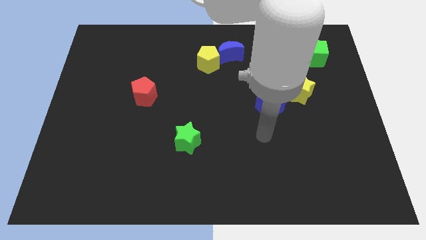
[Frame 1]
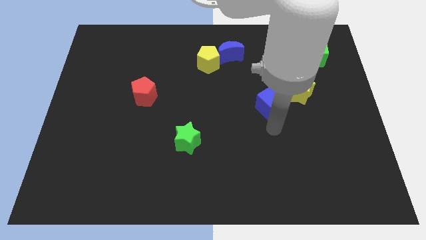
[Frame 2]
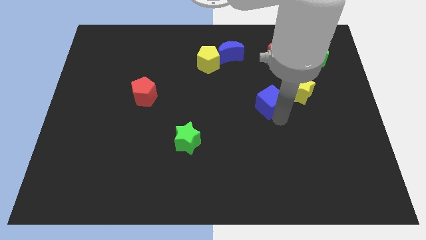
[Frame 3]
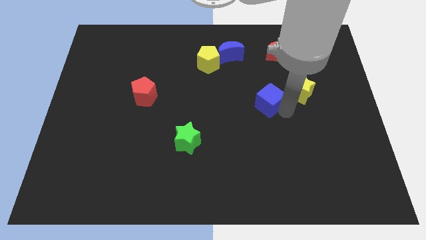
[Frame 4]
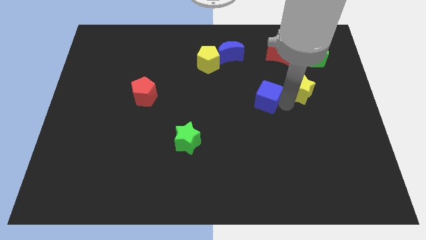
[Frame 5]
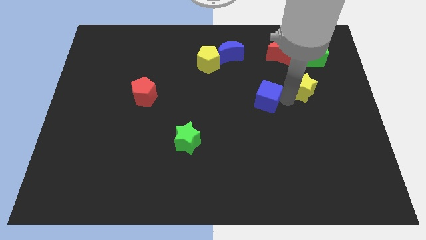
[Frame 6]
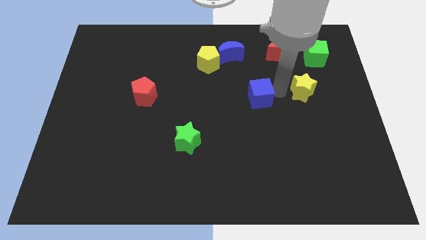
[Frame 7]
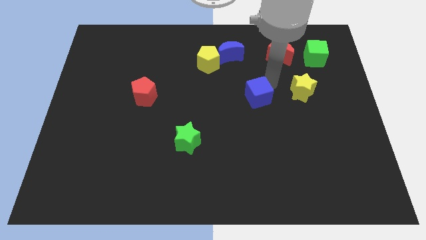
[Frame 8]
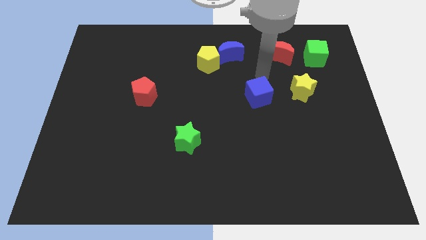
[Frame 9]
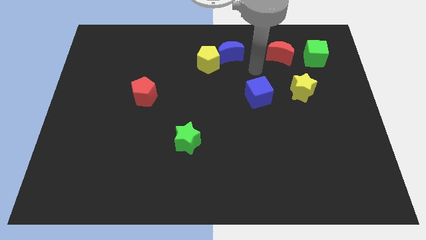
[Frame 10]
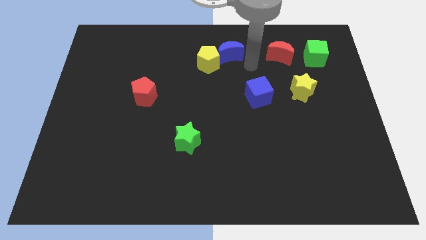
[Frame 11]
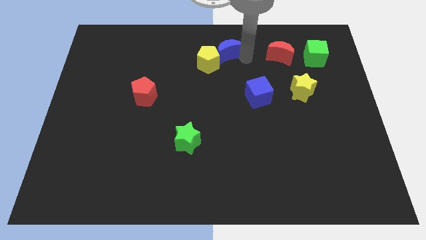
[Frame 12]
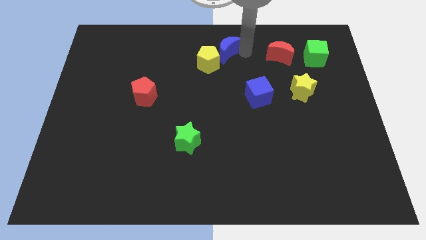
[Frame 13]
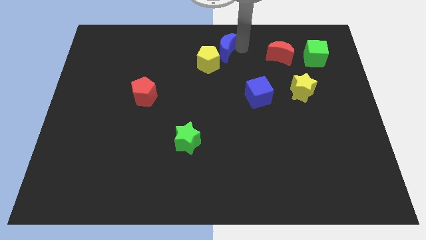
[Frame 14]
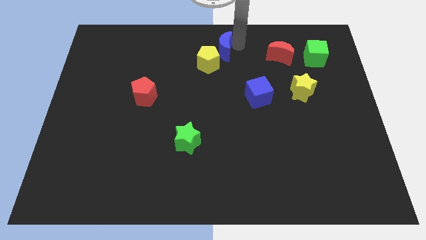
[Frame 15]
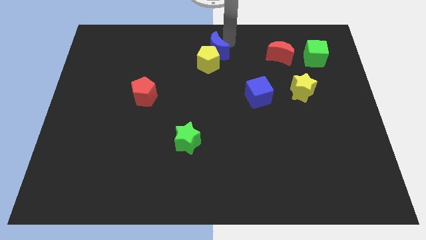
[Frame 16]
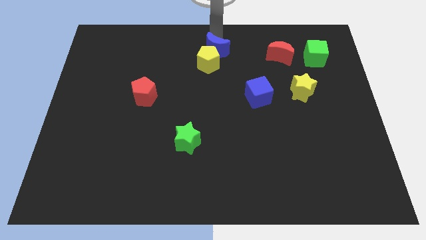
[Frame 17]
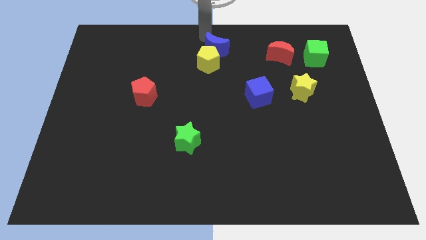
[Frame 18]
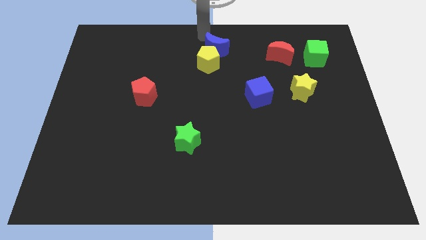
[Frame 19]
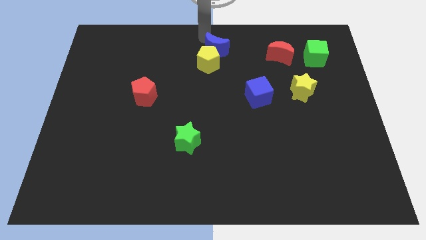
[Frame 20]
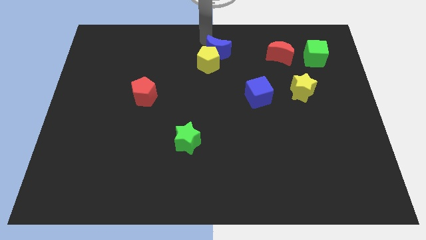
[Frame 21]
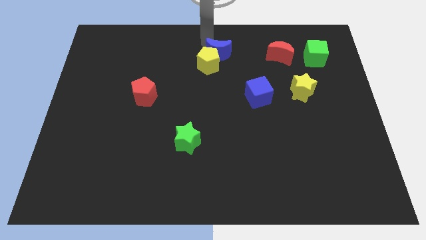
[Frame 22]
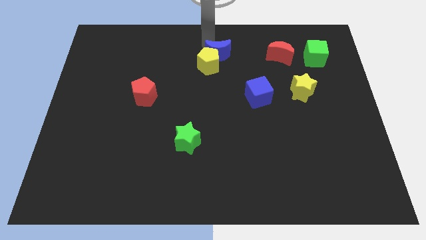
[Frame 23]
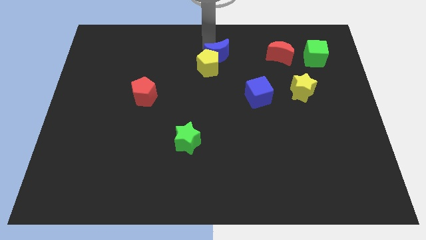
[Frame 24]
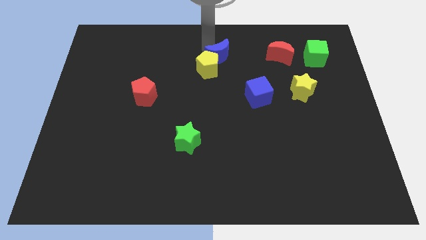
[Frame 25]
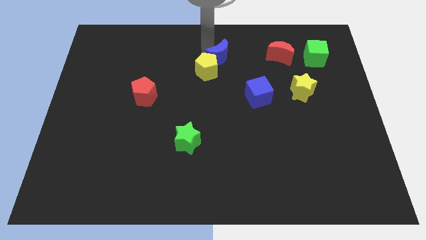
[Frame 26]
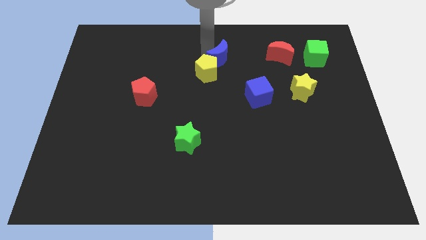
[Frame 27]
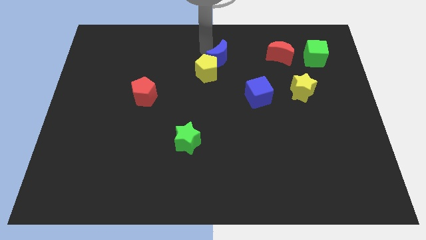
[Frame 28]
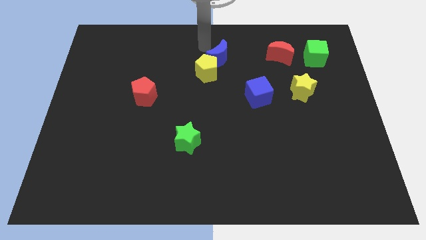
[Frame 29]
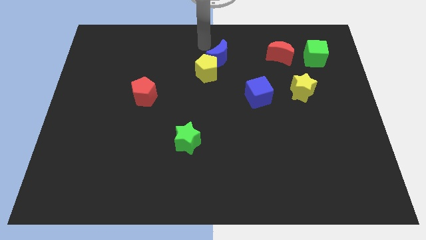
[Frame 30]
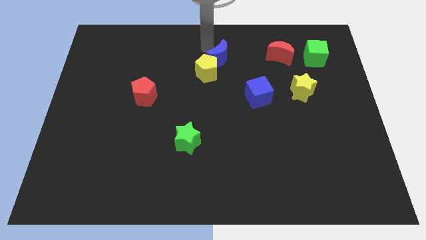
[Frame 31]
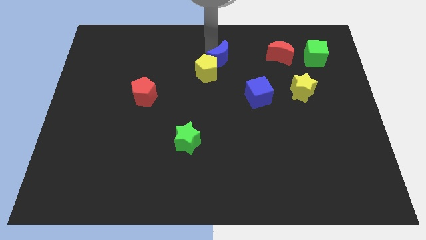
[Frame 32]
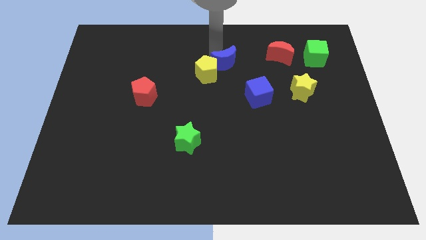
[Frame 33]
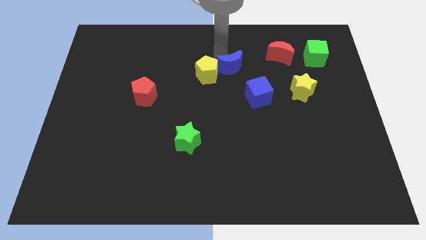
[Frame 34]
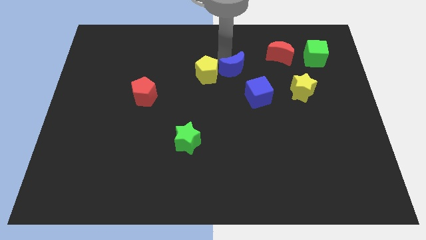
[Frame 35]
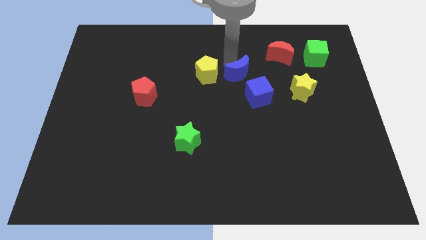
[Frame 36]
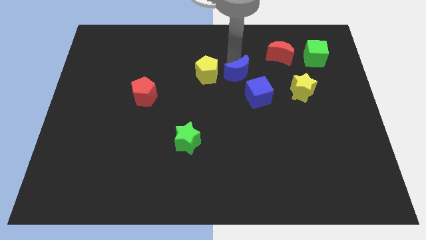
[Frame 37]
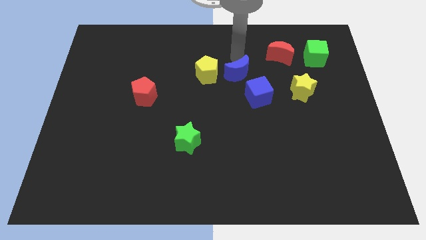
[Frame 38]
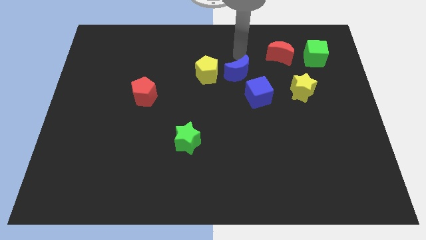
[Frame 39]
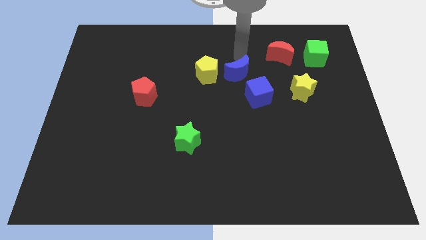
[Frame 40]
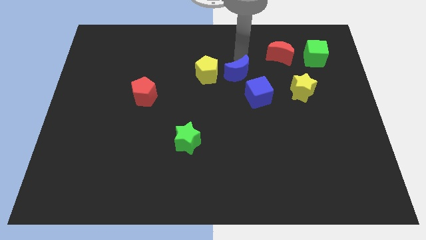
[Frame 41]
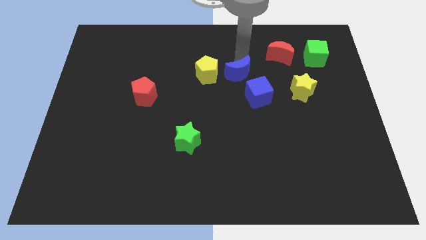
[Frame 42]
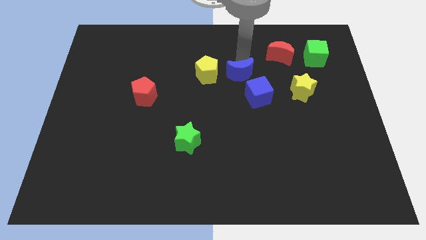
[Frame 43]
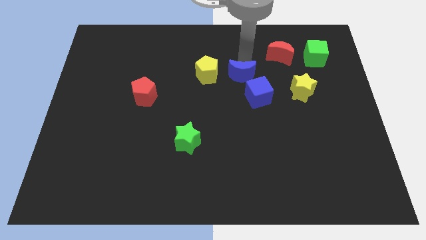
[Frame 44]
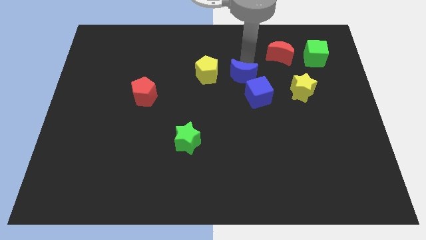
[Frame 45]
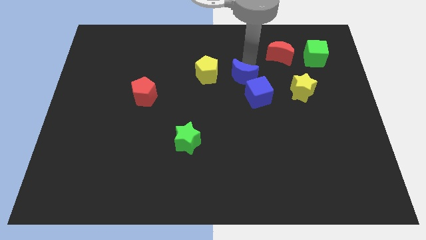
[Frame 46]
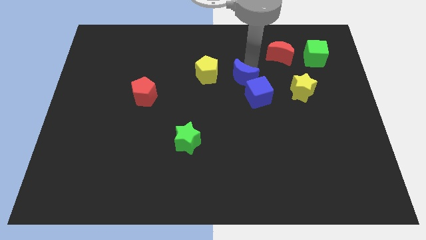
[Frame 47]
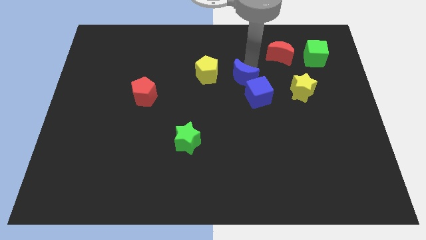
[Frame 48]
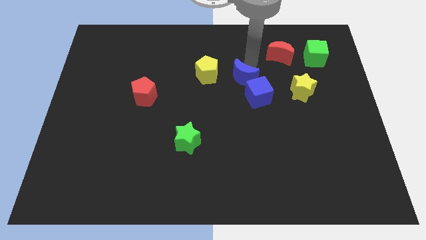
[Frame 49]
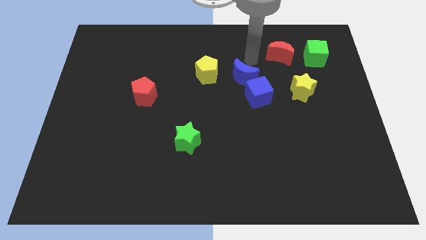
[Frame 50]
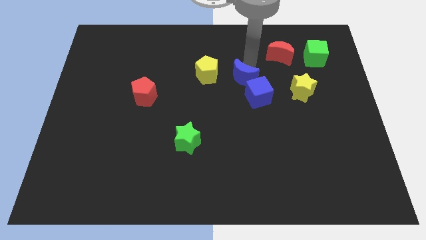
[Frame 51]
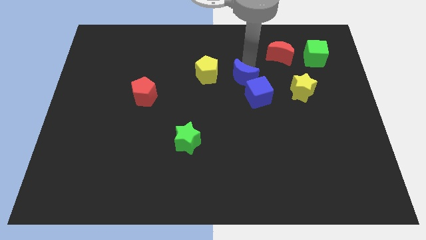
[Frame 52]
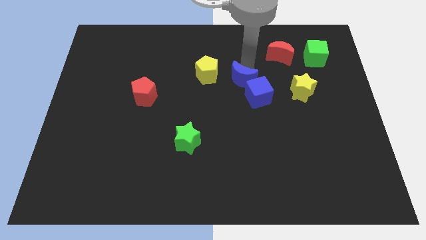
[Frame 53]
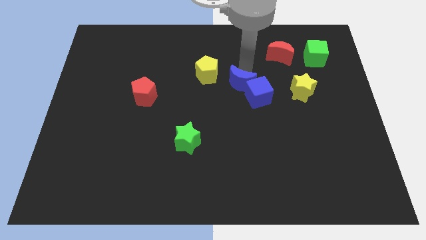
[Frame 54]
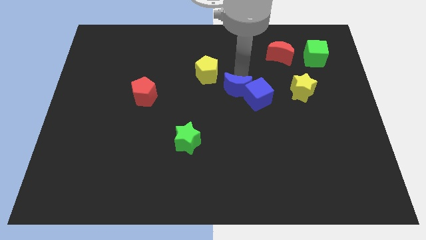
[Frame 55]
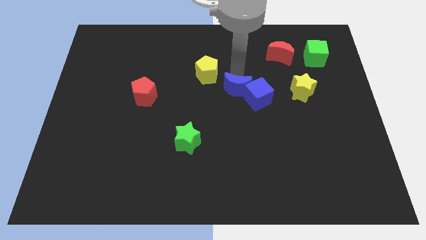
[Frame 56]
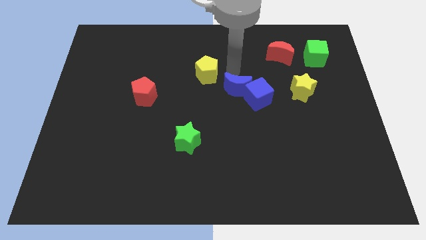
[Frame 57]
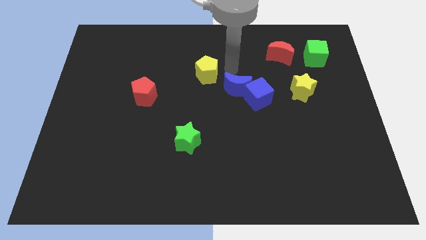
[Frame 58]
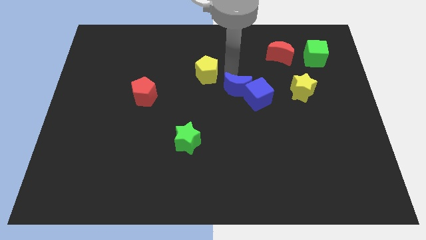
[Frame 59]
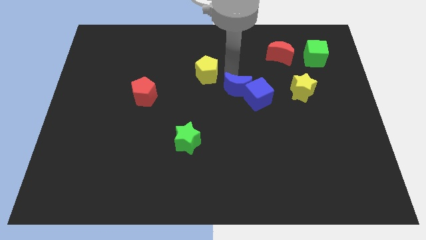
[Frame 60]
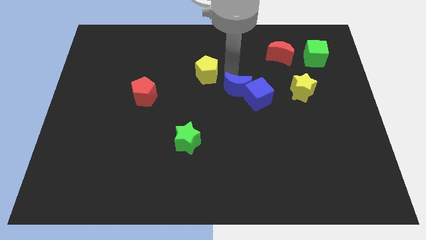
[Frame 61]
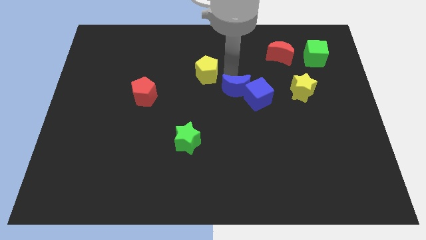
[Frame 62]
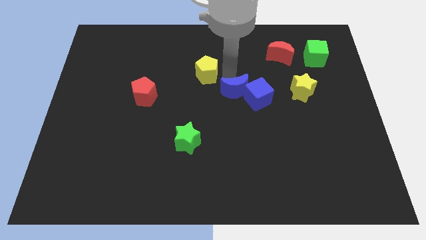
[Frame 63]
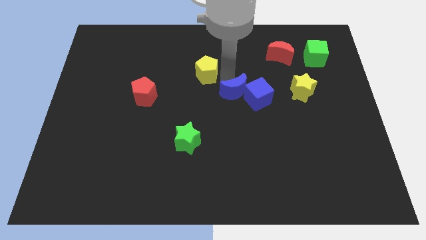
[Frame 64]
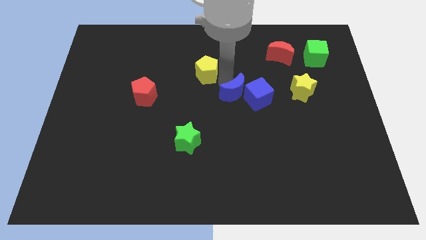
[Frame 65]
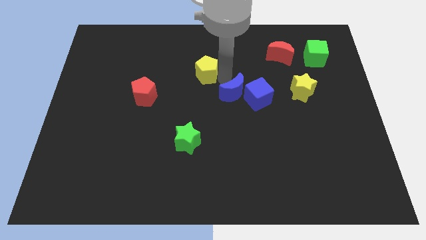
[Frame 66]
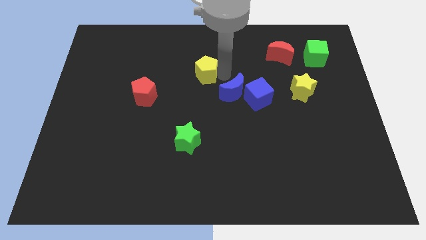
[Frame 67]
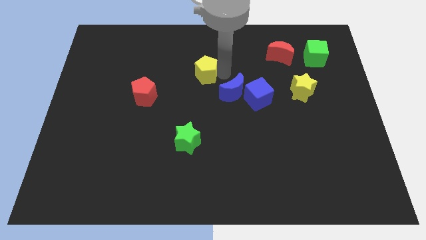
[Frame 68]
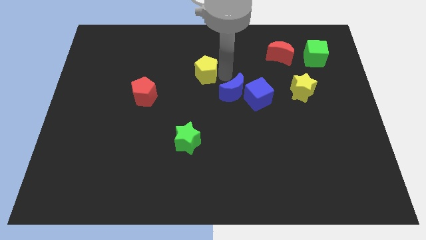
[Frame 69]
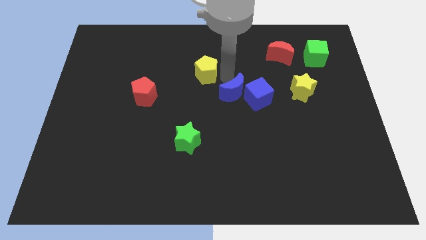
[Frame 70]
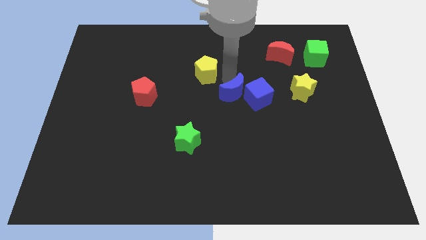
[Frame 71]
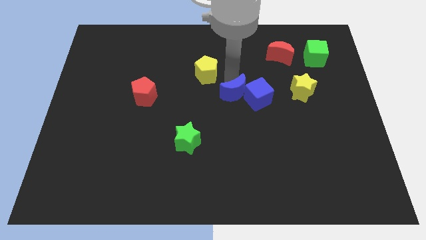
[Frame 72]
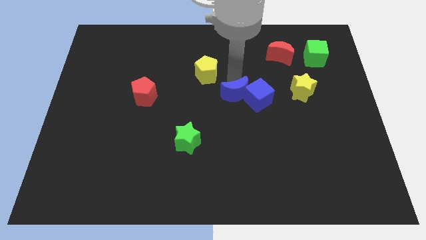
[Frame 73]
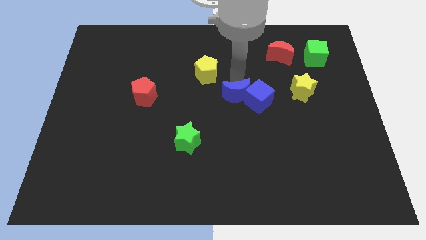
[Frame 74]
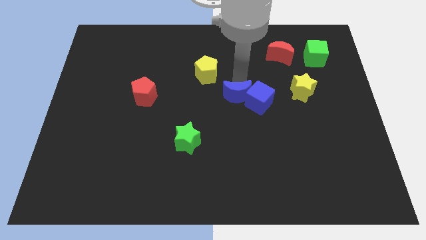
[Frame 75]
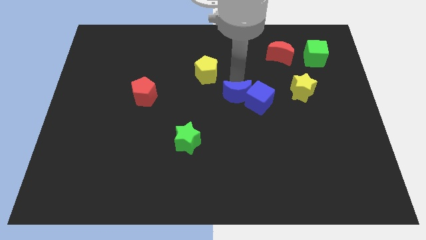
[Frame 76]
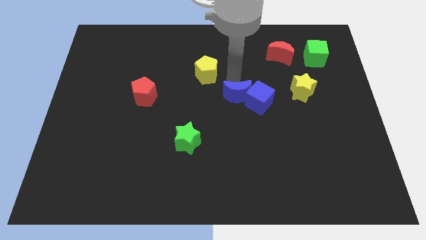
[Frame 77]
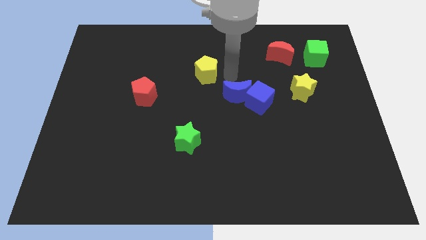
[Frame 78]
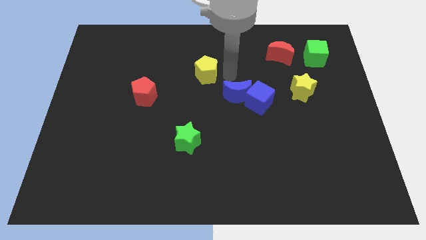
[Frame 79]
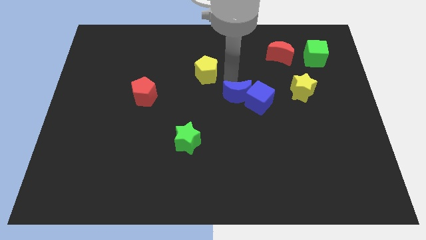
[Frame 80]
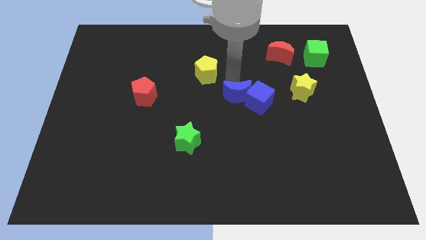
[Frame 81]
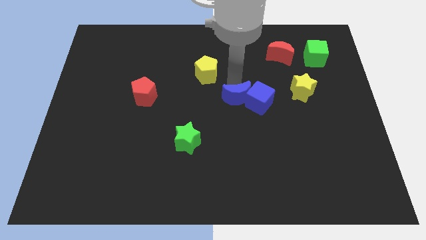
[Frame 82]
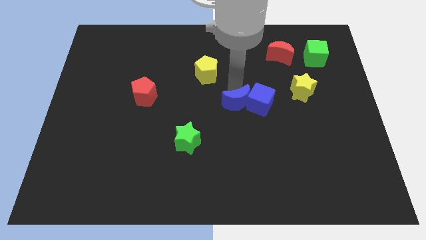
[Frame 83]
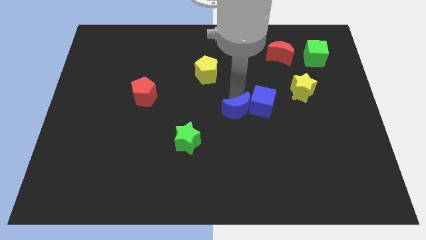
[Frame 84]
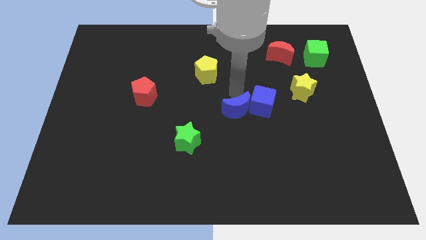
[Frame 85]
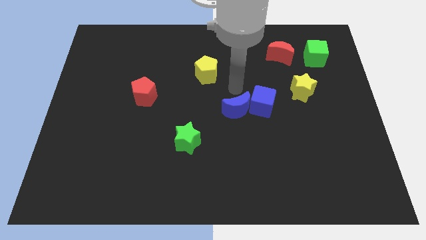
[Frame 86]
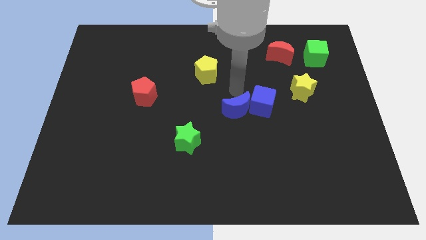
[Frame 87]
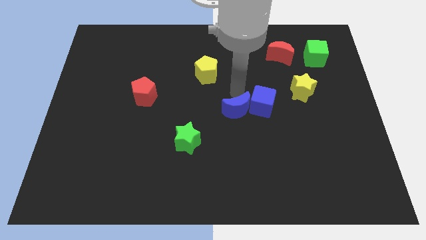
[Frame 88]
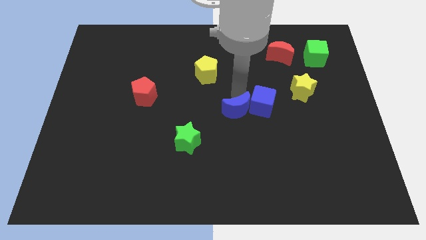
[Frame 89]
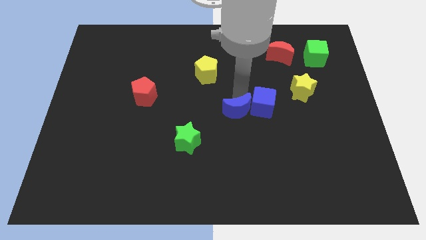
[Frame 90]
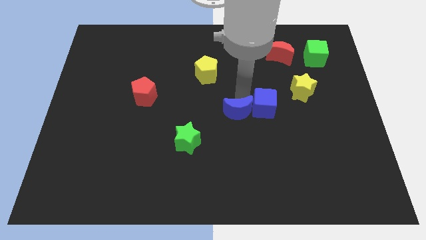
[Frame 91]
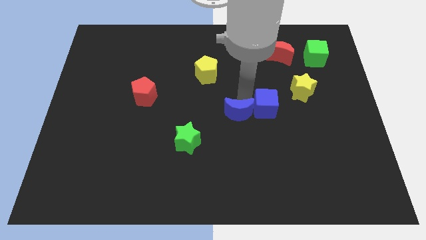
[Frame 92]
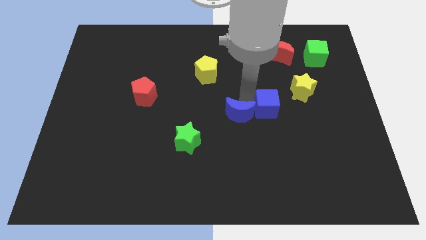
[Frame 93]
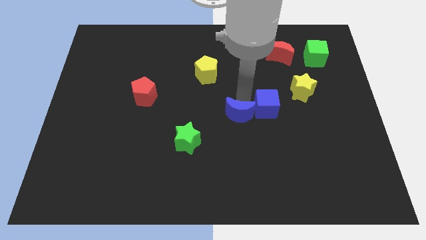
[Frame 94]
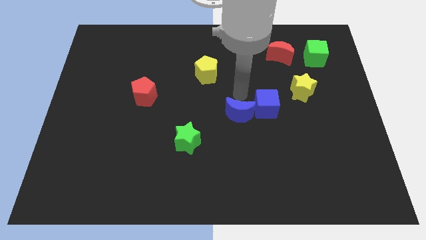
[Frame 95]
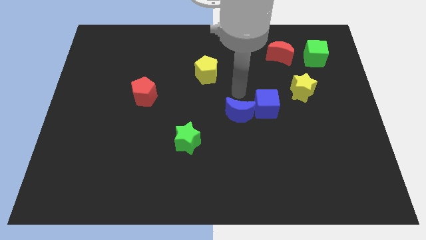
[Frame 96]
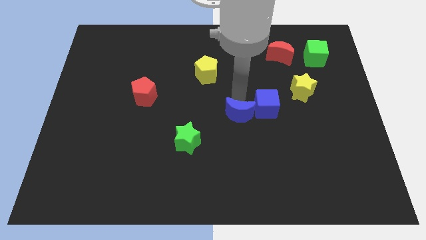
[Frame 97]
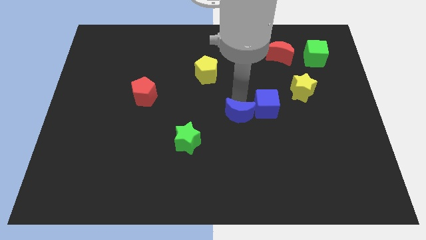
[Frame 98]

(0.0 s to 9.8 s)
push the blue moon down
